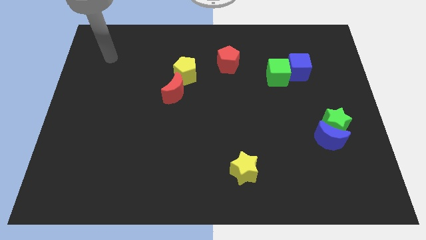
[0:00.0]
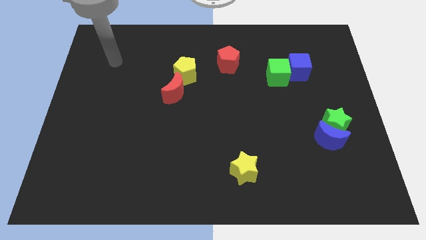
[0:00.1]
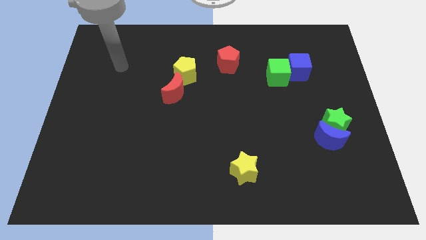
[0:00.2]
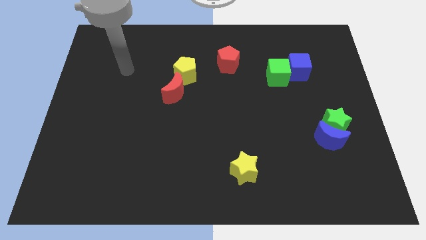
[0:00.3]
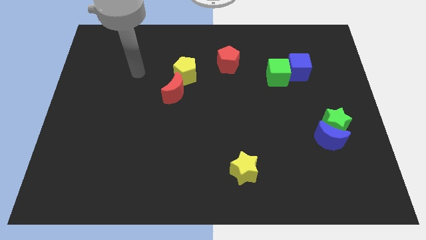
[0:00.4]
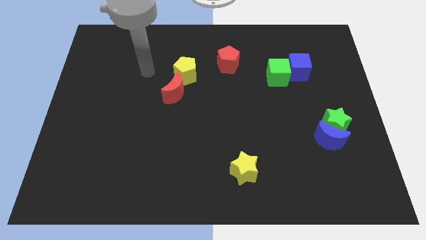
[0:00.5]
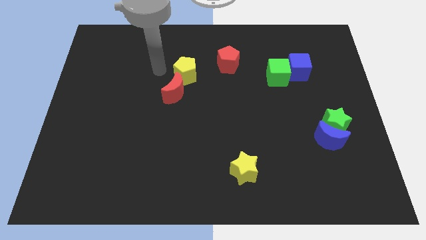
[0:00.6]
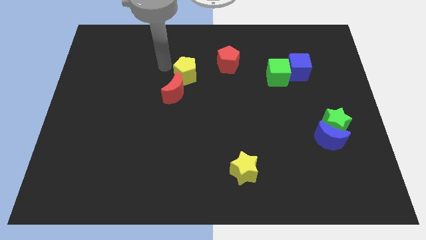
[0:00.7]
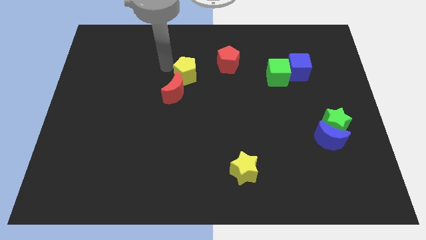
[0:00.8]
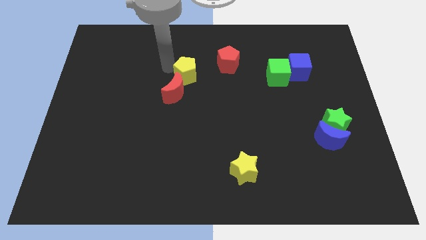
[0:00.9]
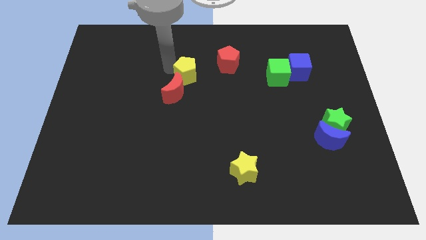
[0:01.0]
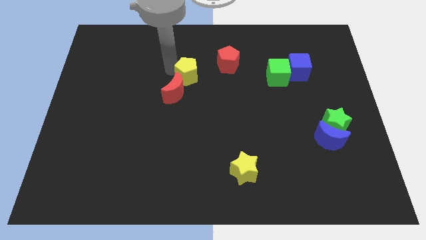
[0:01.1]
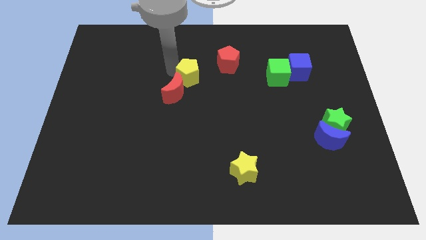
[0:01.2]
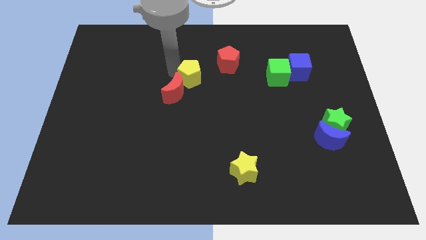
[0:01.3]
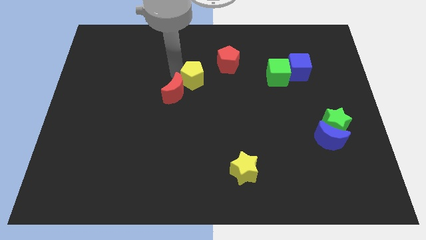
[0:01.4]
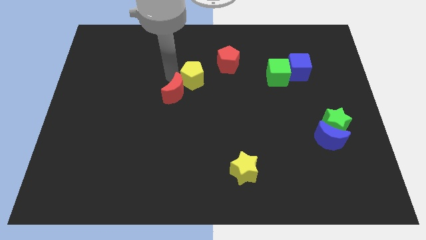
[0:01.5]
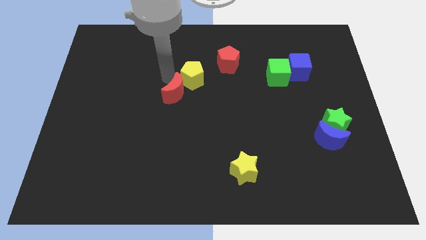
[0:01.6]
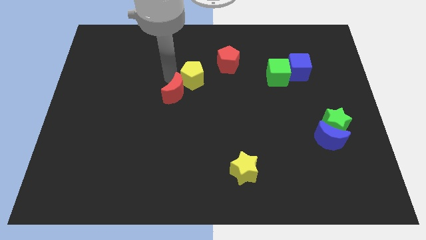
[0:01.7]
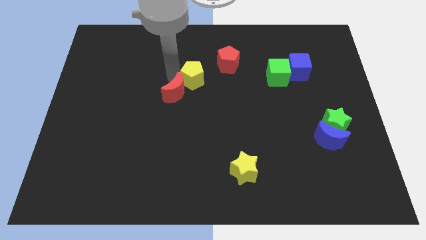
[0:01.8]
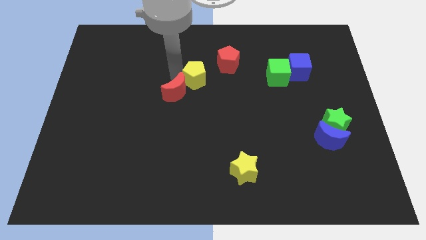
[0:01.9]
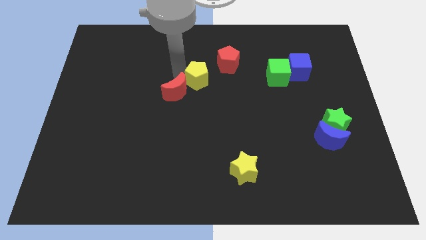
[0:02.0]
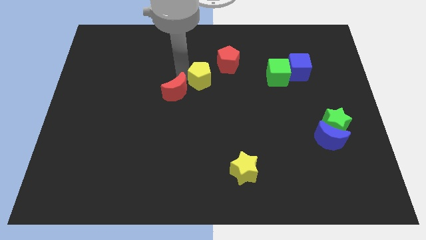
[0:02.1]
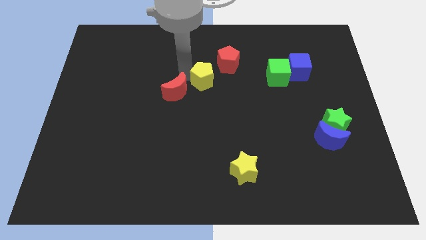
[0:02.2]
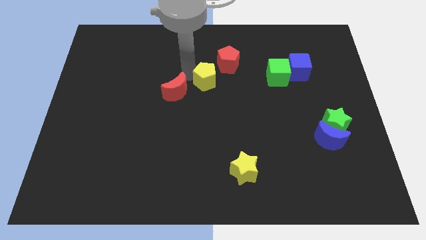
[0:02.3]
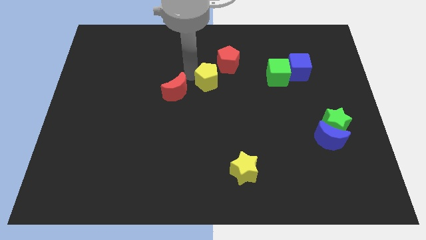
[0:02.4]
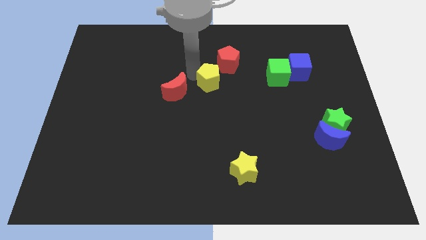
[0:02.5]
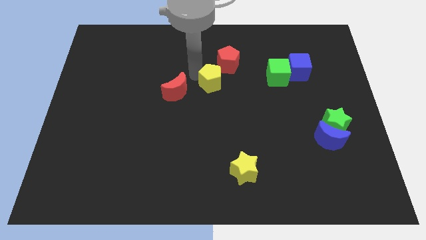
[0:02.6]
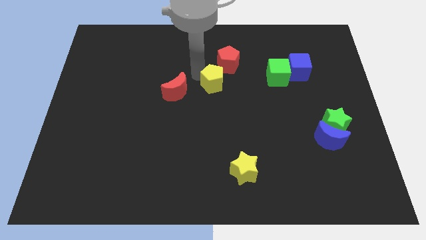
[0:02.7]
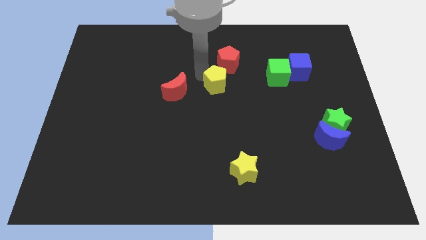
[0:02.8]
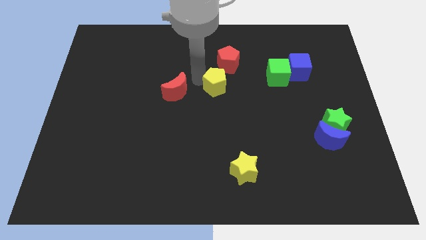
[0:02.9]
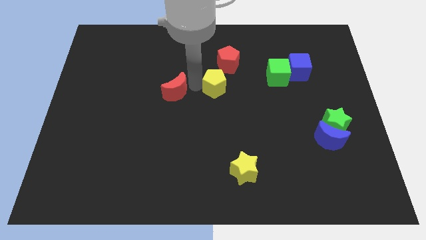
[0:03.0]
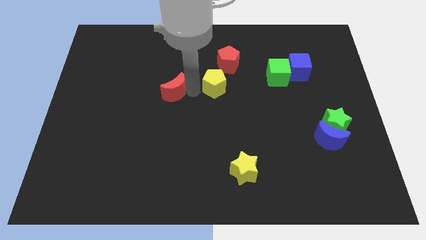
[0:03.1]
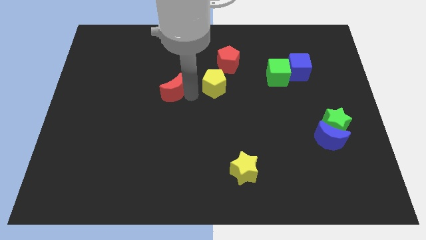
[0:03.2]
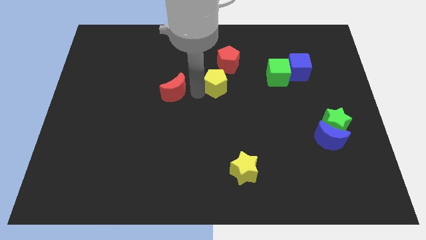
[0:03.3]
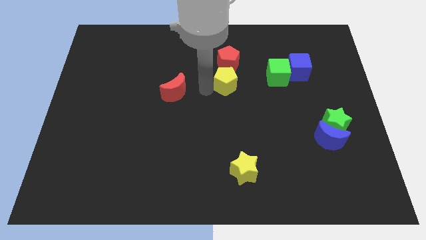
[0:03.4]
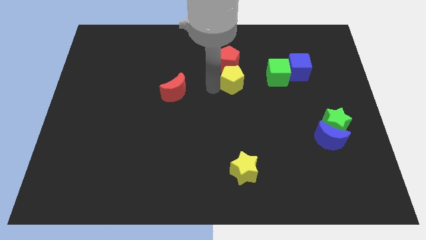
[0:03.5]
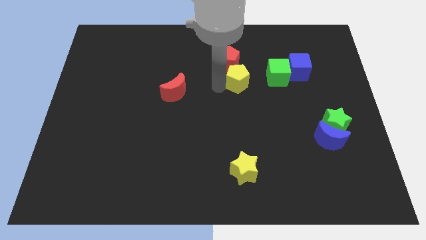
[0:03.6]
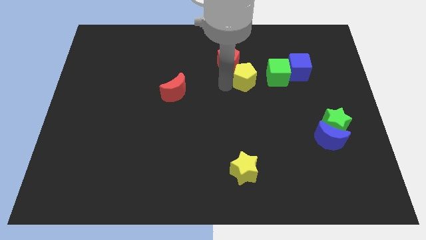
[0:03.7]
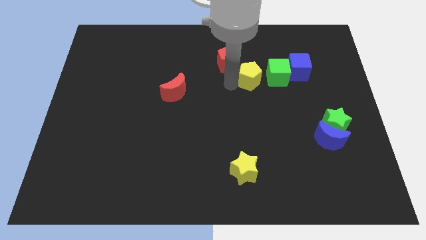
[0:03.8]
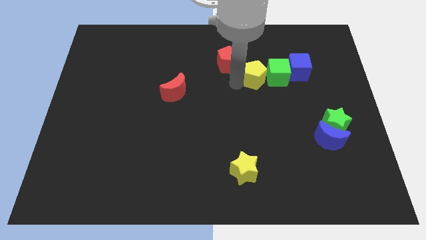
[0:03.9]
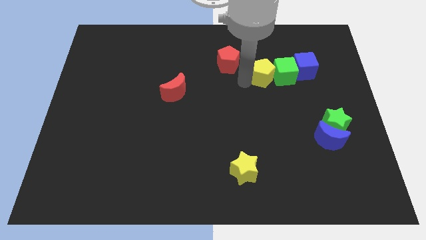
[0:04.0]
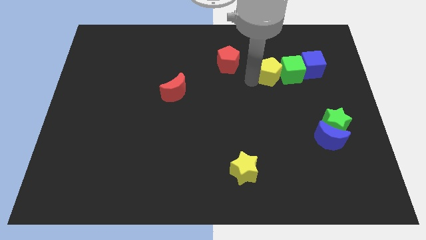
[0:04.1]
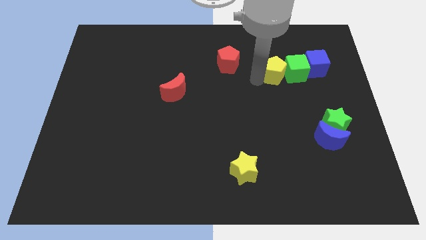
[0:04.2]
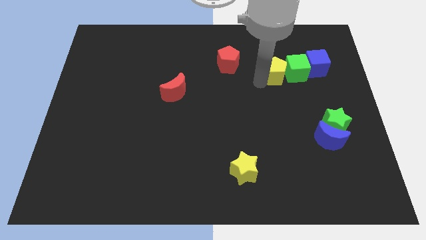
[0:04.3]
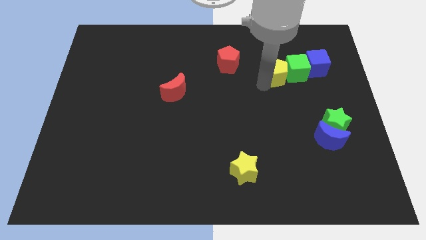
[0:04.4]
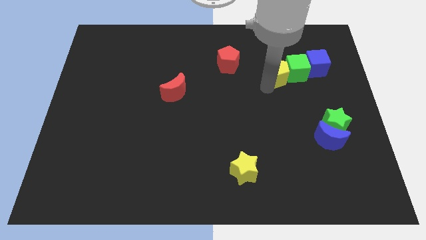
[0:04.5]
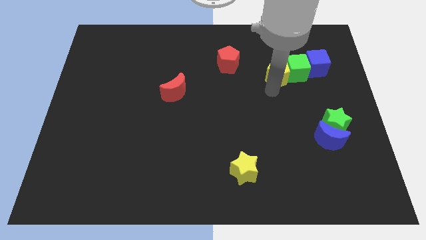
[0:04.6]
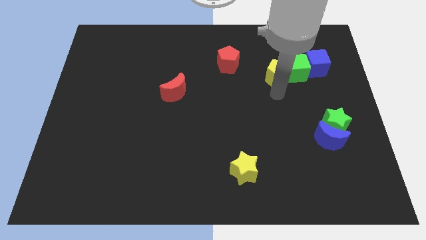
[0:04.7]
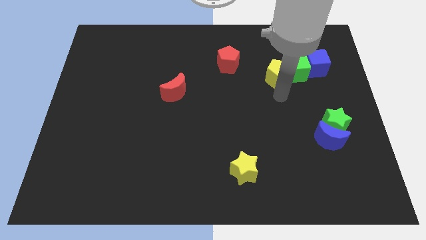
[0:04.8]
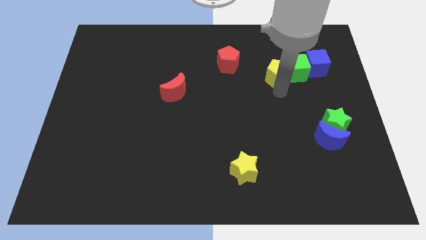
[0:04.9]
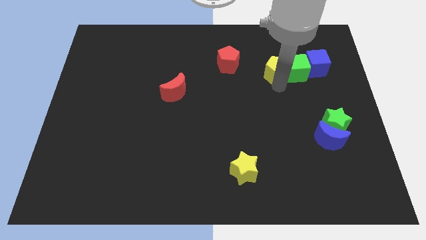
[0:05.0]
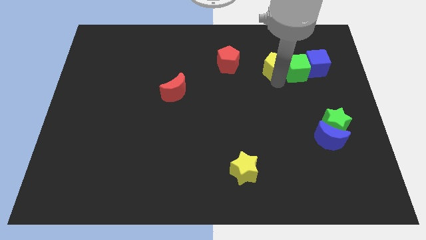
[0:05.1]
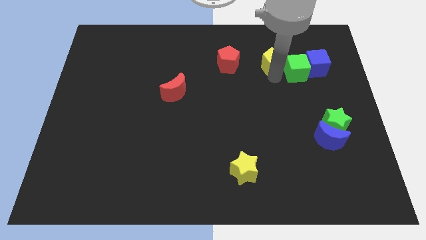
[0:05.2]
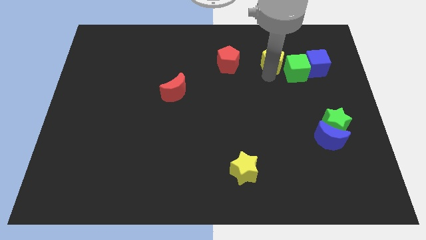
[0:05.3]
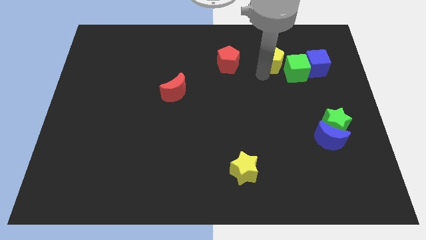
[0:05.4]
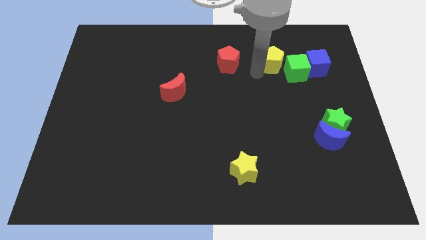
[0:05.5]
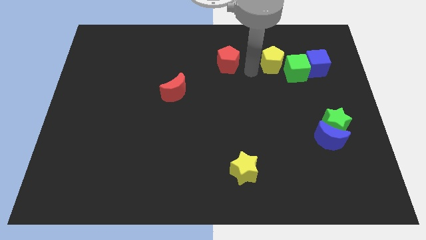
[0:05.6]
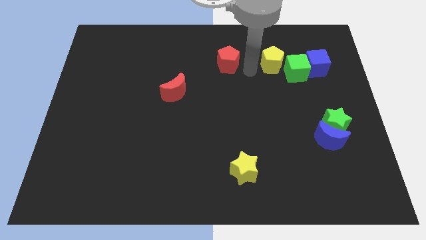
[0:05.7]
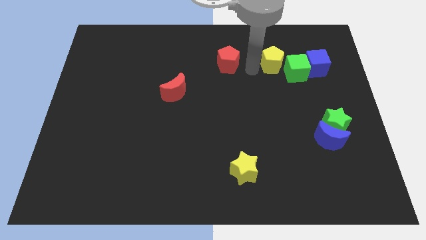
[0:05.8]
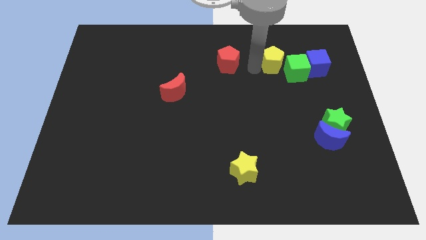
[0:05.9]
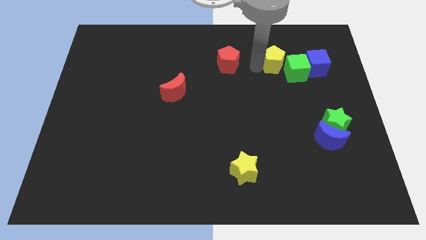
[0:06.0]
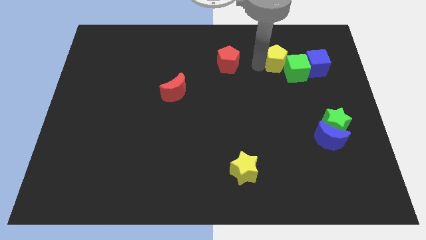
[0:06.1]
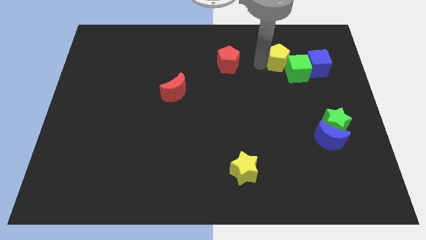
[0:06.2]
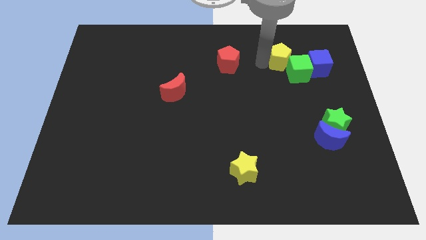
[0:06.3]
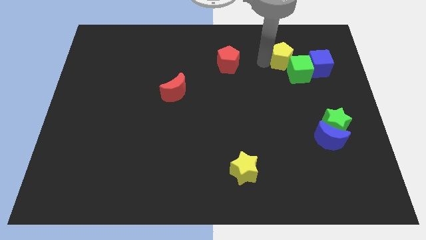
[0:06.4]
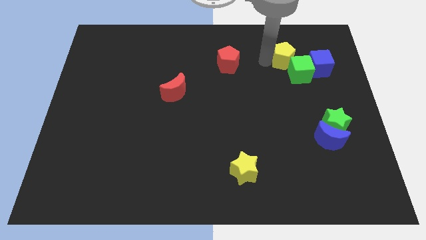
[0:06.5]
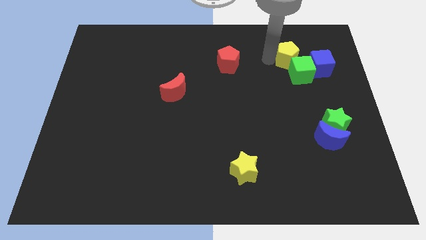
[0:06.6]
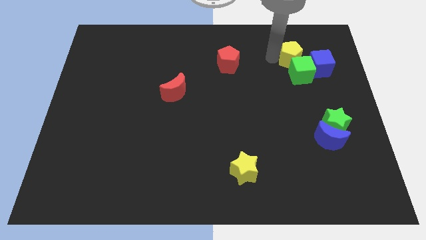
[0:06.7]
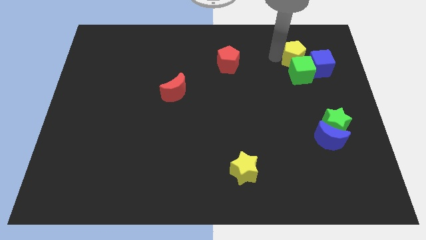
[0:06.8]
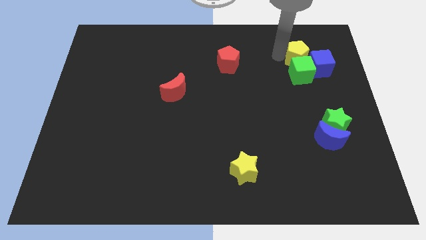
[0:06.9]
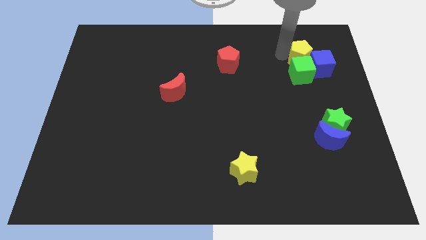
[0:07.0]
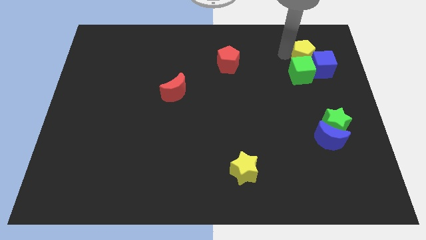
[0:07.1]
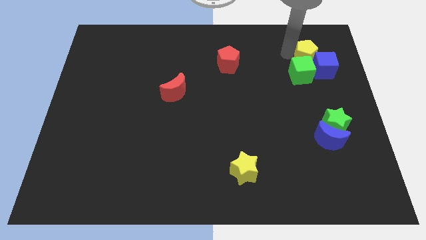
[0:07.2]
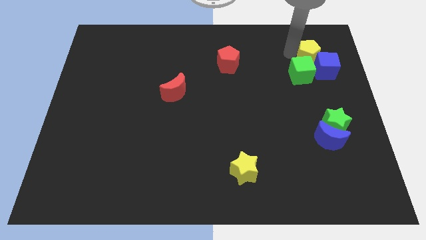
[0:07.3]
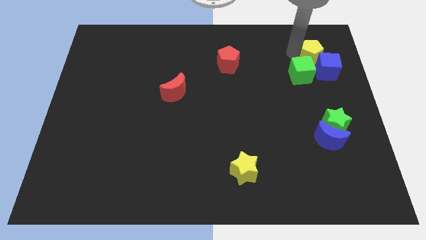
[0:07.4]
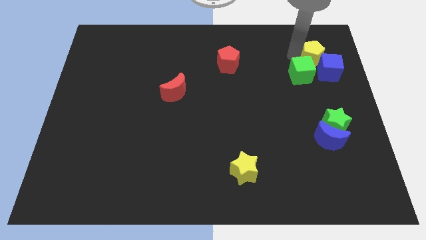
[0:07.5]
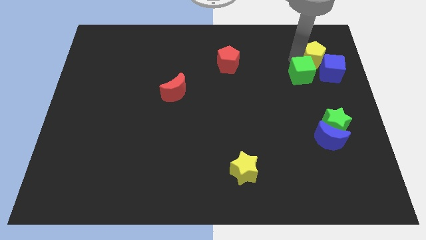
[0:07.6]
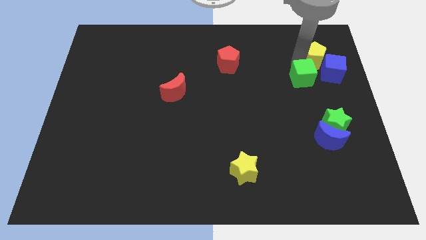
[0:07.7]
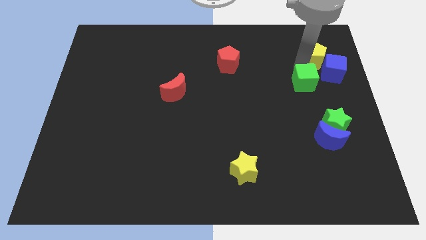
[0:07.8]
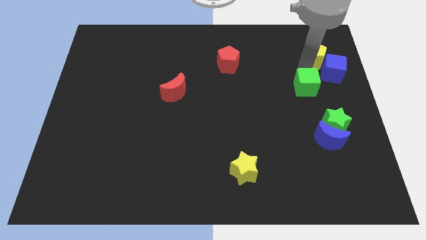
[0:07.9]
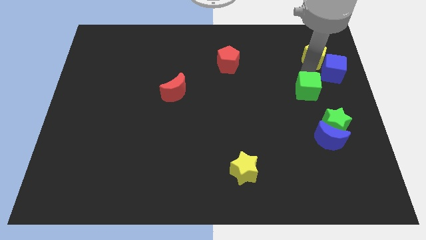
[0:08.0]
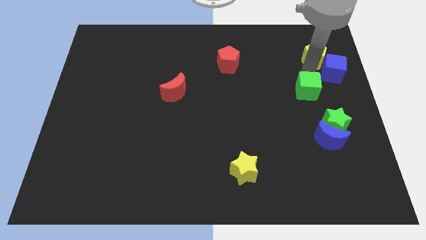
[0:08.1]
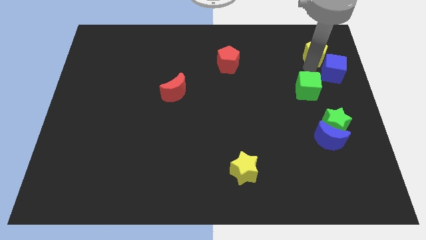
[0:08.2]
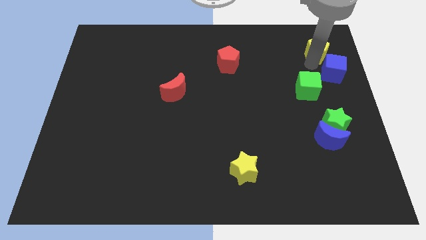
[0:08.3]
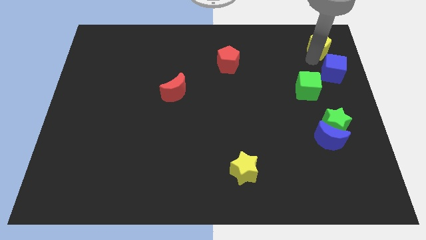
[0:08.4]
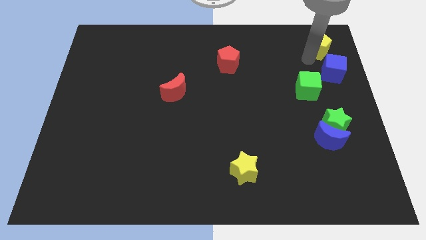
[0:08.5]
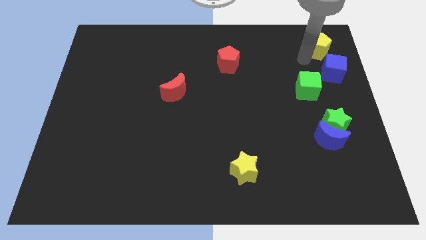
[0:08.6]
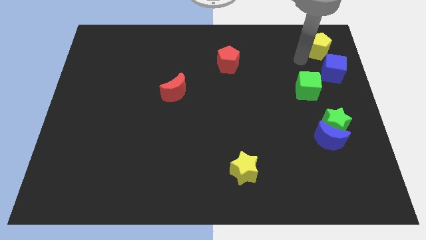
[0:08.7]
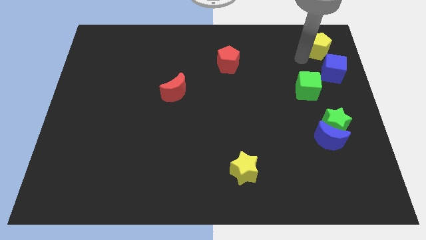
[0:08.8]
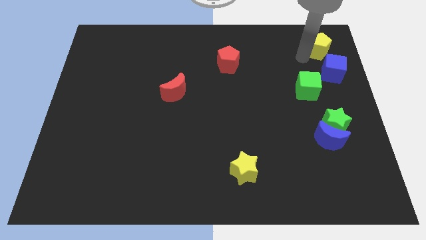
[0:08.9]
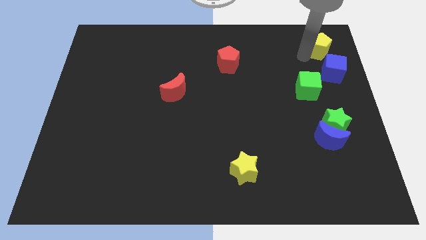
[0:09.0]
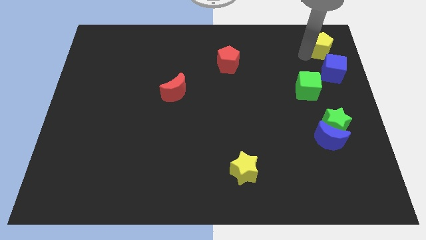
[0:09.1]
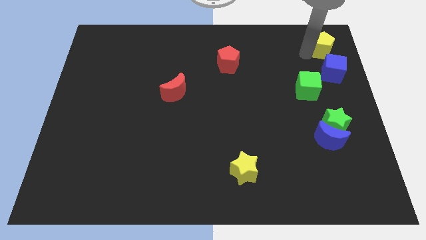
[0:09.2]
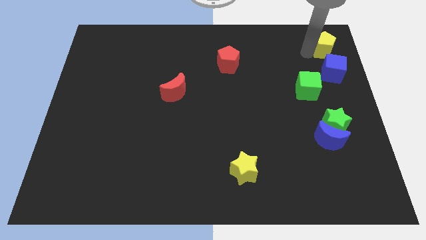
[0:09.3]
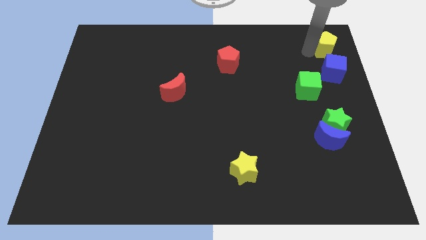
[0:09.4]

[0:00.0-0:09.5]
push the yellow pentagon to the top right corner
